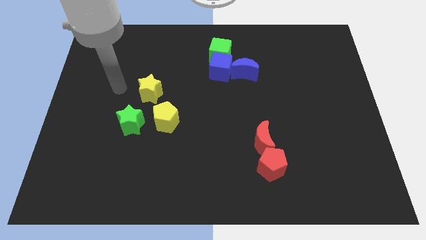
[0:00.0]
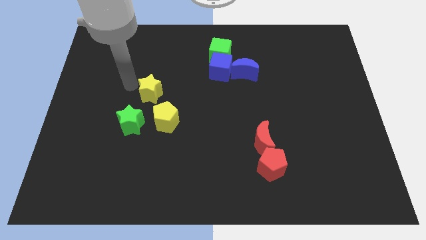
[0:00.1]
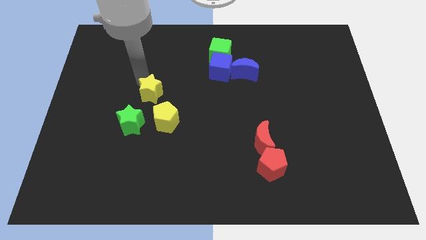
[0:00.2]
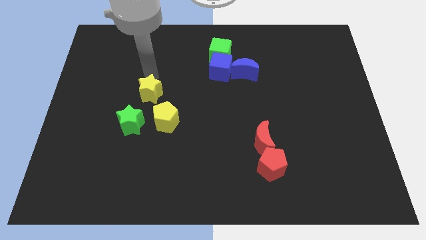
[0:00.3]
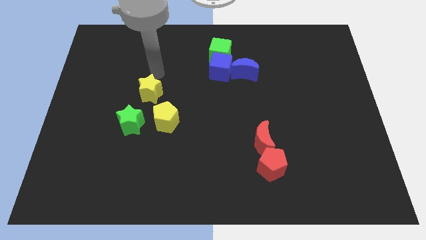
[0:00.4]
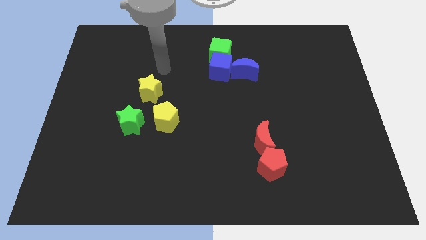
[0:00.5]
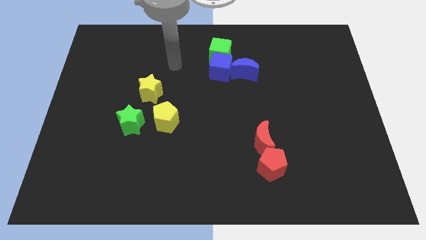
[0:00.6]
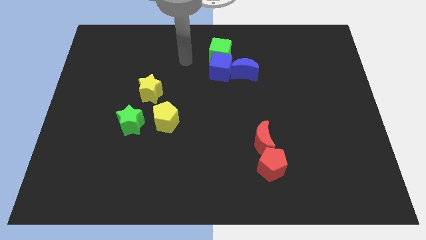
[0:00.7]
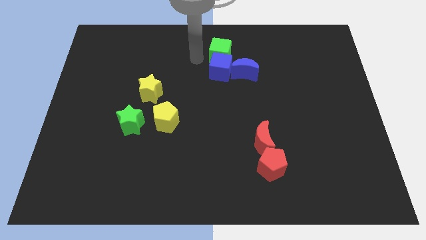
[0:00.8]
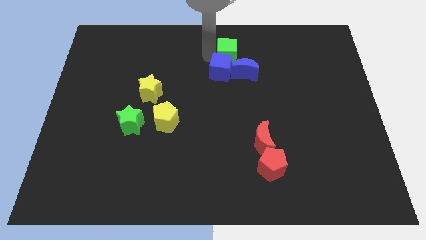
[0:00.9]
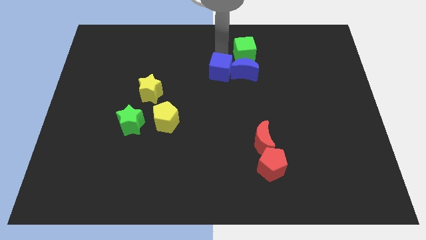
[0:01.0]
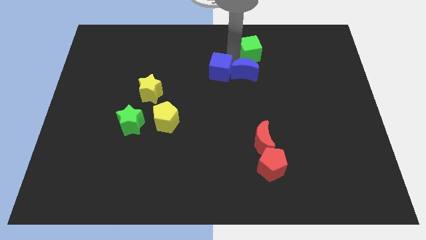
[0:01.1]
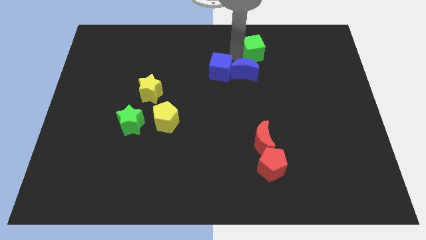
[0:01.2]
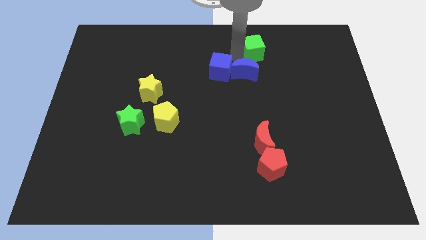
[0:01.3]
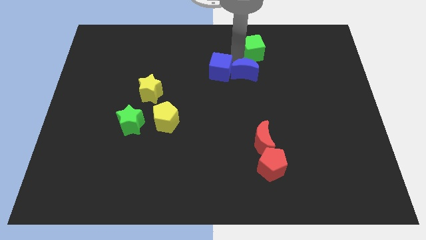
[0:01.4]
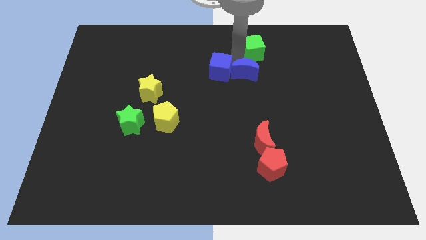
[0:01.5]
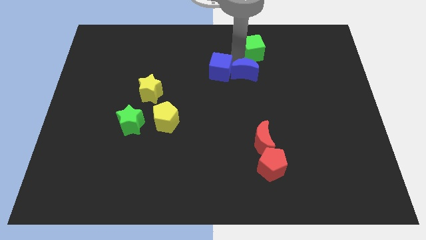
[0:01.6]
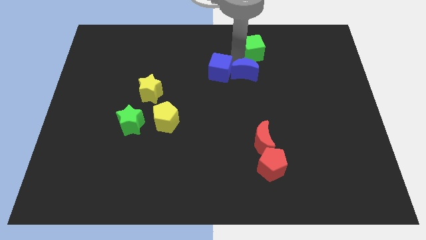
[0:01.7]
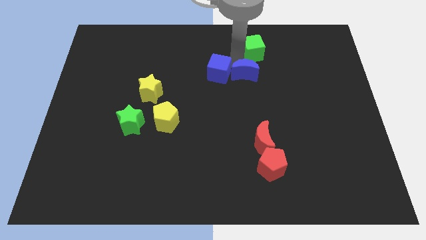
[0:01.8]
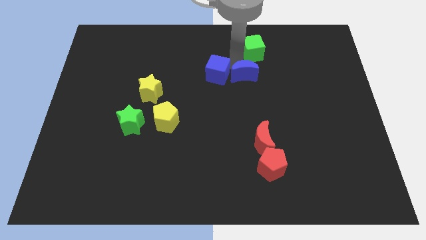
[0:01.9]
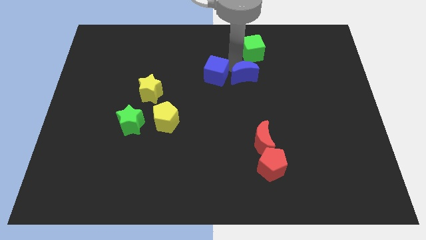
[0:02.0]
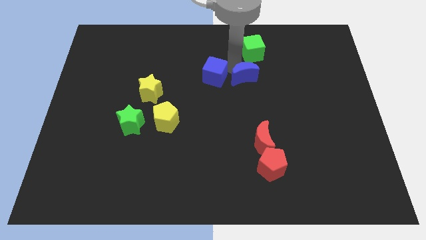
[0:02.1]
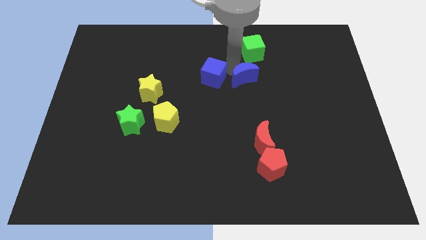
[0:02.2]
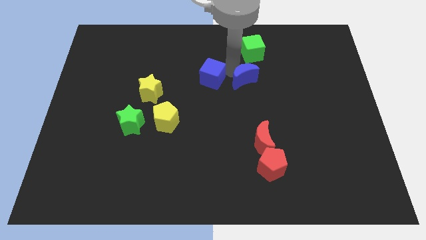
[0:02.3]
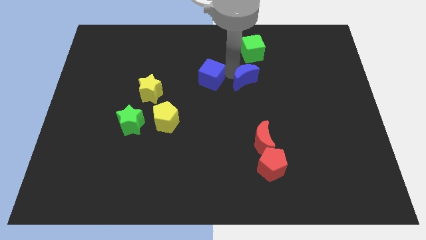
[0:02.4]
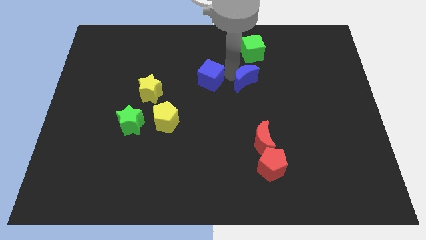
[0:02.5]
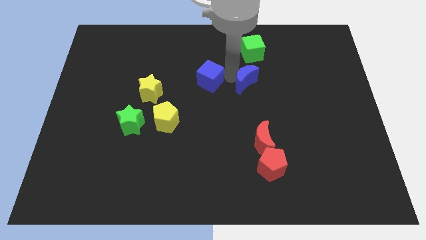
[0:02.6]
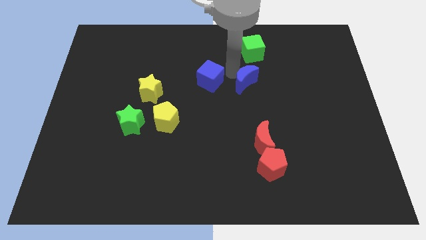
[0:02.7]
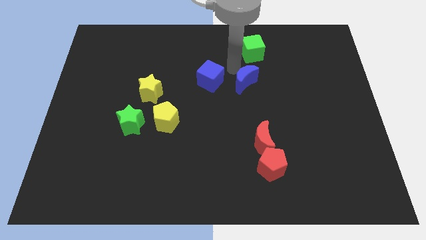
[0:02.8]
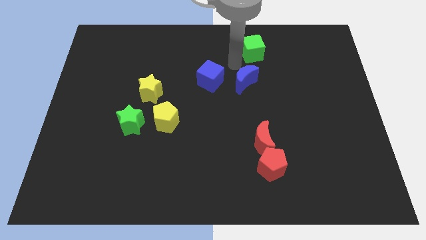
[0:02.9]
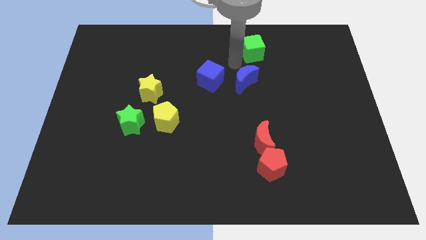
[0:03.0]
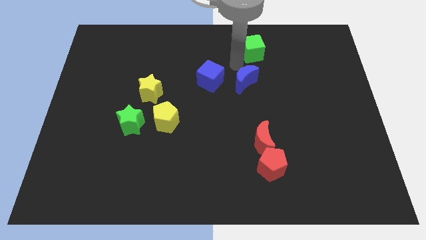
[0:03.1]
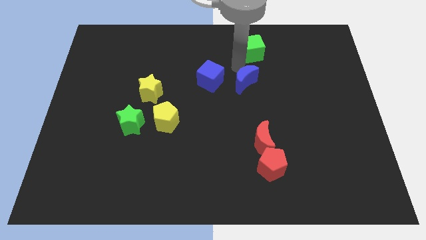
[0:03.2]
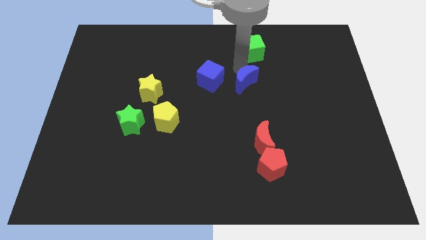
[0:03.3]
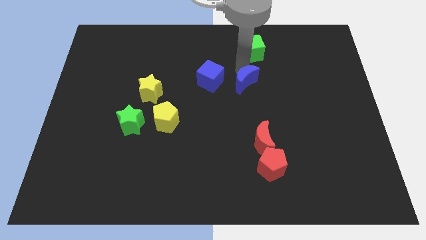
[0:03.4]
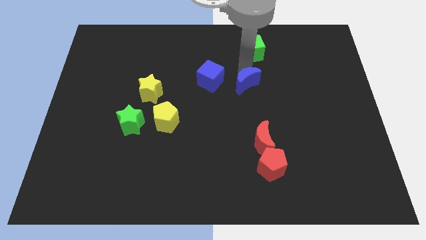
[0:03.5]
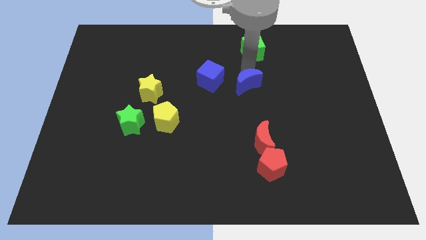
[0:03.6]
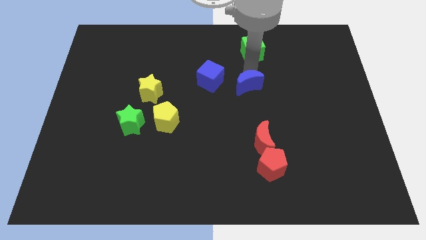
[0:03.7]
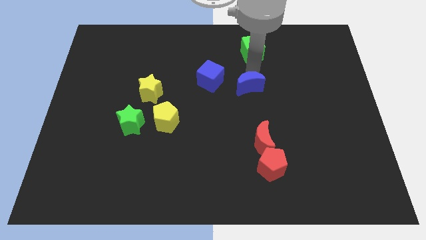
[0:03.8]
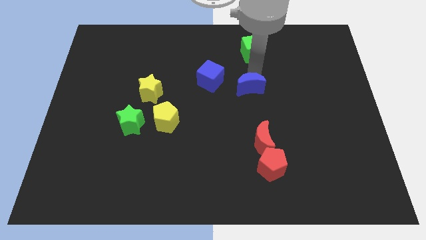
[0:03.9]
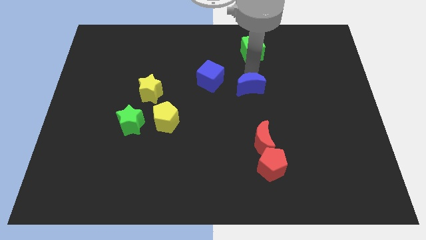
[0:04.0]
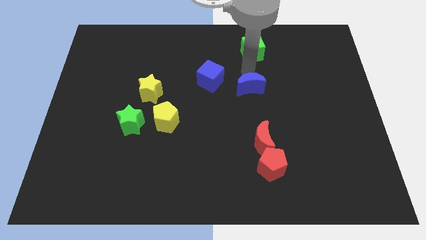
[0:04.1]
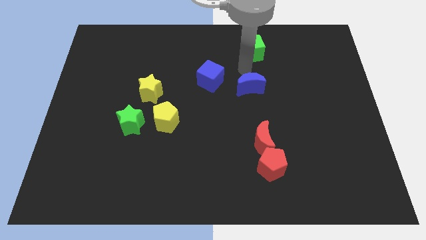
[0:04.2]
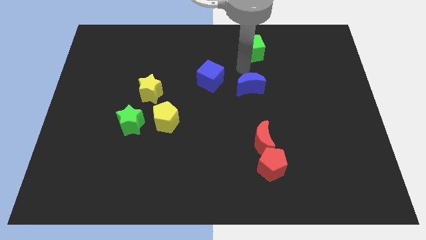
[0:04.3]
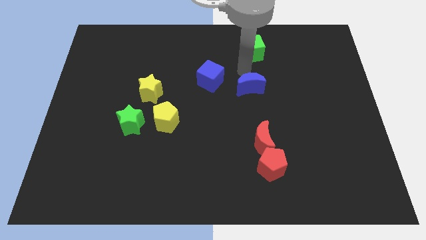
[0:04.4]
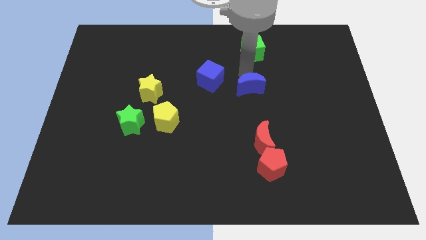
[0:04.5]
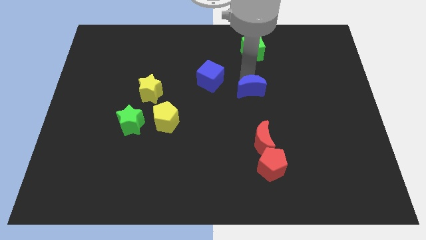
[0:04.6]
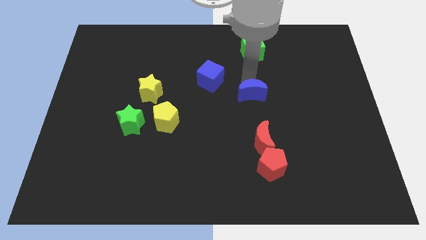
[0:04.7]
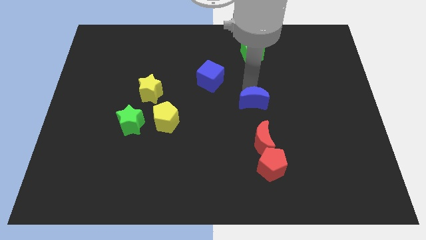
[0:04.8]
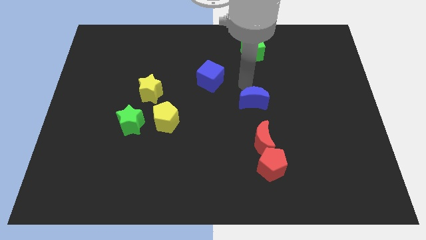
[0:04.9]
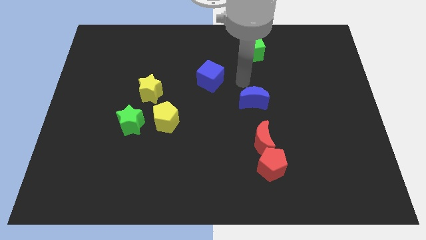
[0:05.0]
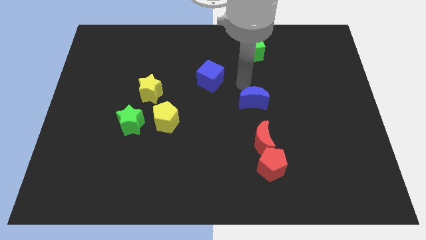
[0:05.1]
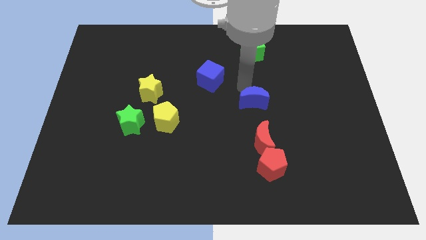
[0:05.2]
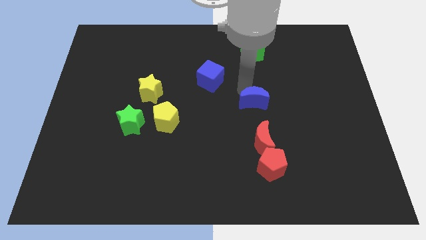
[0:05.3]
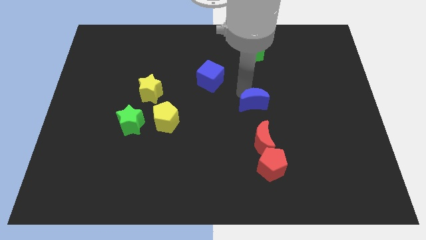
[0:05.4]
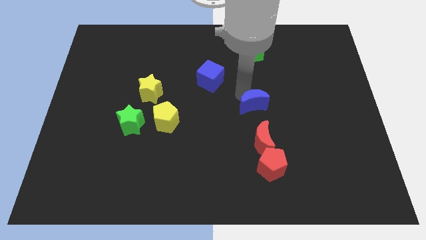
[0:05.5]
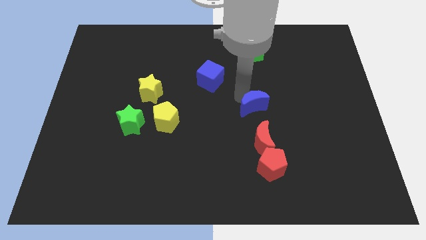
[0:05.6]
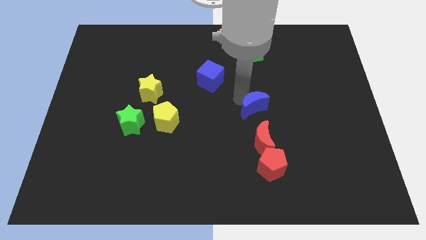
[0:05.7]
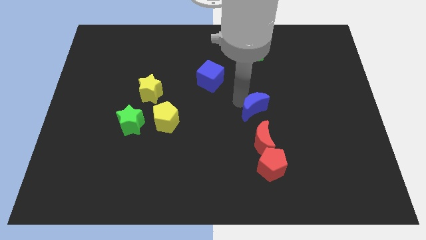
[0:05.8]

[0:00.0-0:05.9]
move the blue moon above the red pentagon

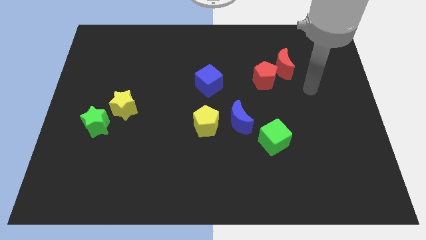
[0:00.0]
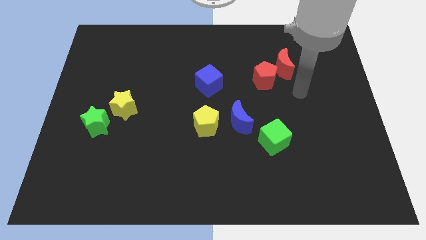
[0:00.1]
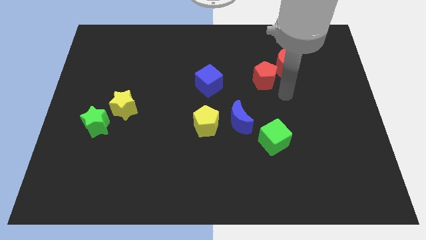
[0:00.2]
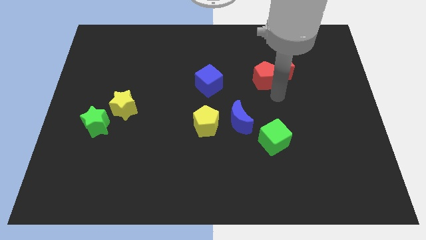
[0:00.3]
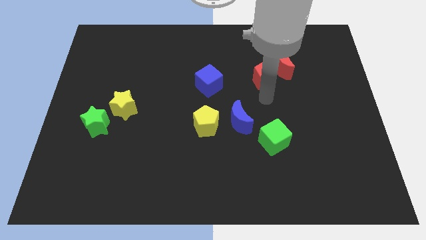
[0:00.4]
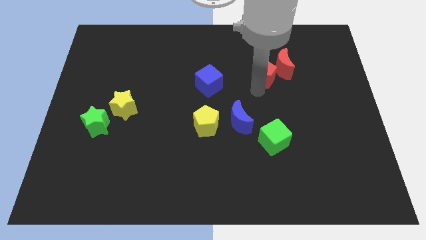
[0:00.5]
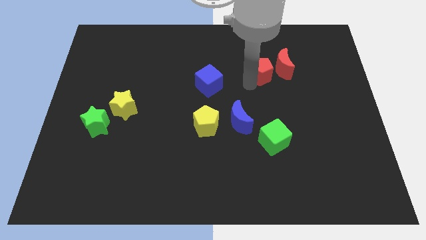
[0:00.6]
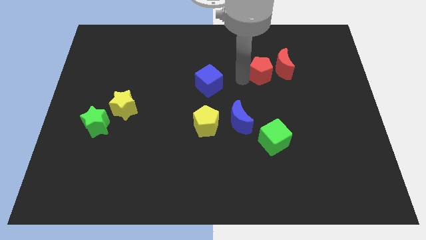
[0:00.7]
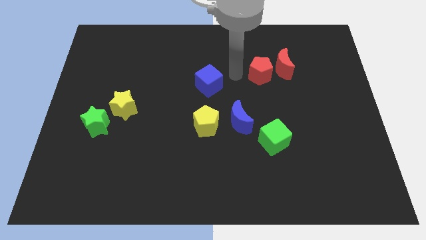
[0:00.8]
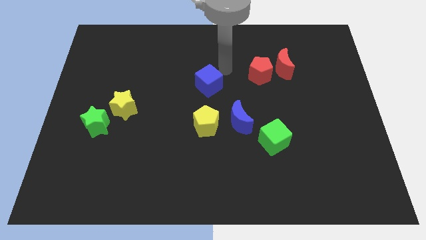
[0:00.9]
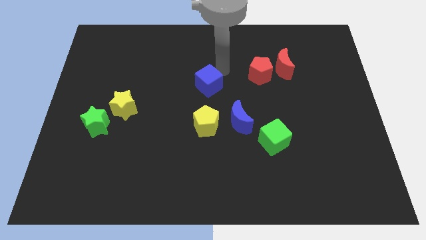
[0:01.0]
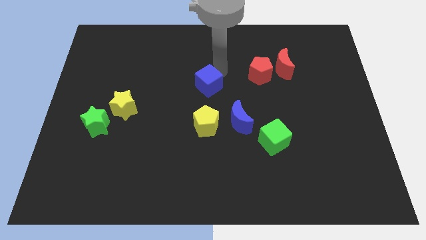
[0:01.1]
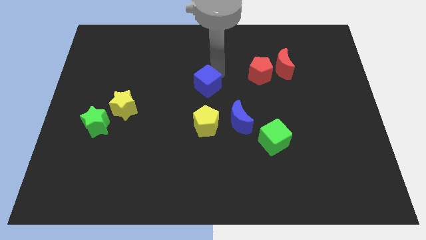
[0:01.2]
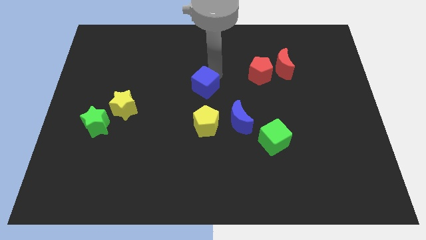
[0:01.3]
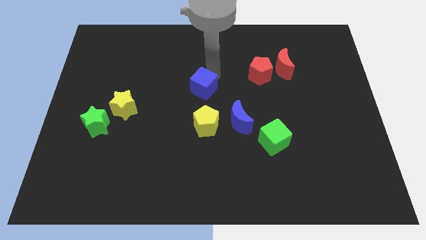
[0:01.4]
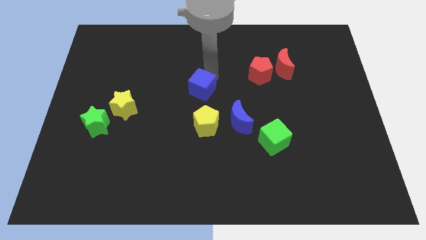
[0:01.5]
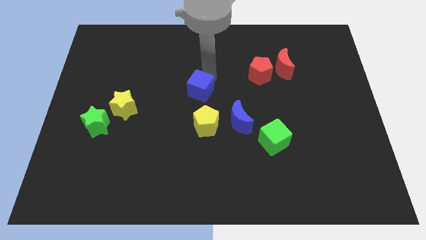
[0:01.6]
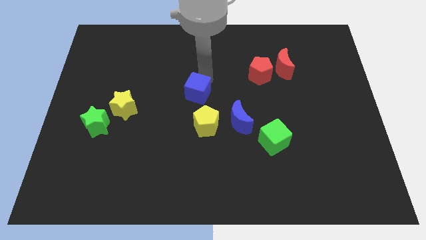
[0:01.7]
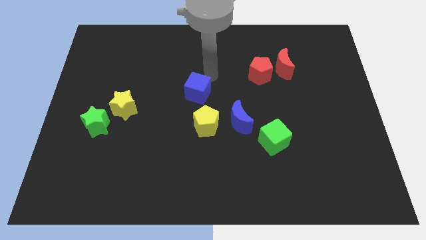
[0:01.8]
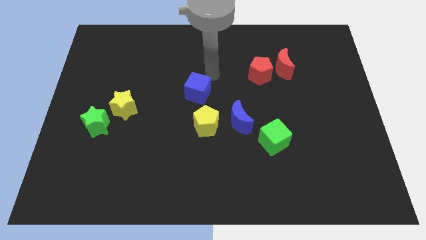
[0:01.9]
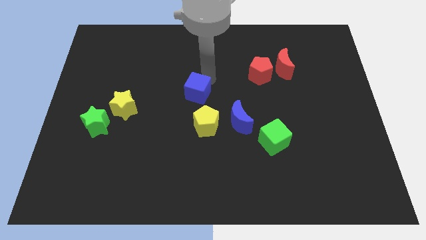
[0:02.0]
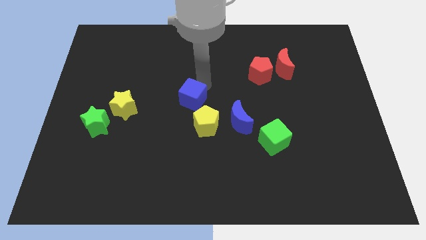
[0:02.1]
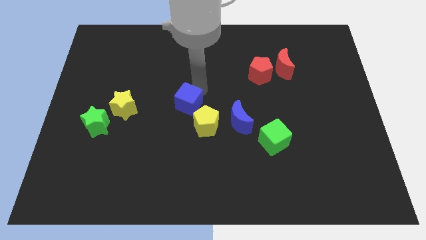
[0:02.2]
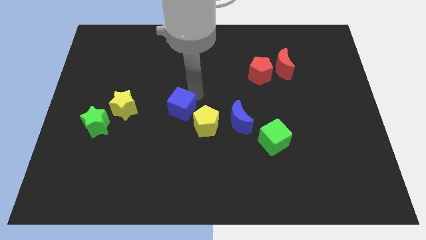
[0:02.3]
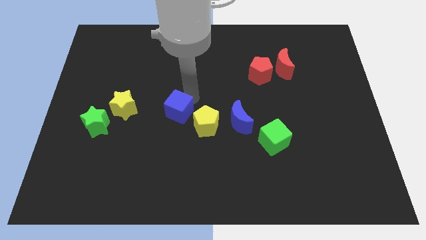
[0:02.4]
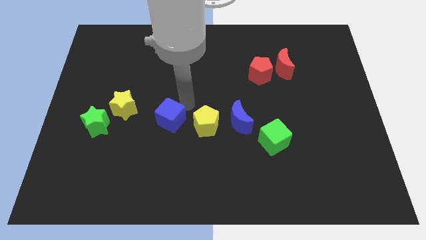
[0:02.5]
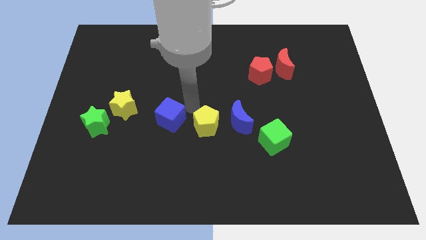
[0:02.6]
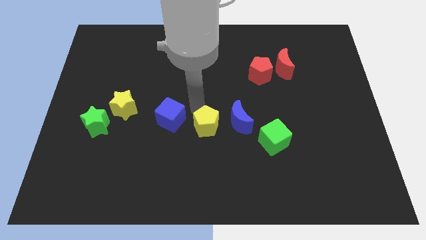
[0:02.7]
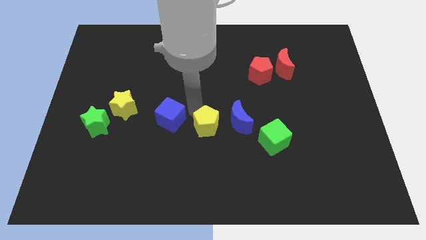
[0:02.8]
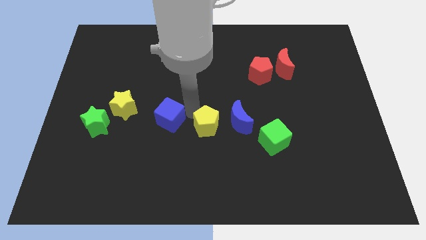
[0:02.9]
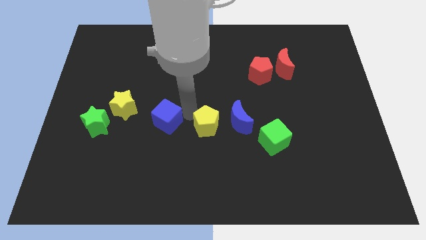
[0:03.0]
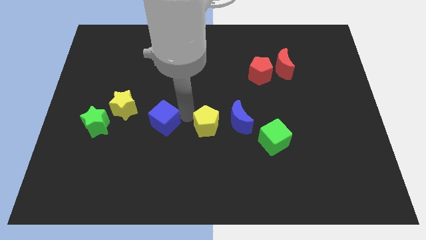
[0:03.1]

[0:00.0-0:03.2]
push the blue cube diagonally down and to the right of the yellow star
